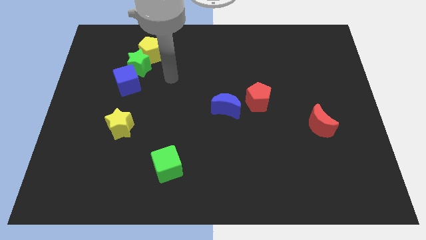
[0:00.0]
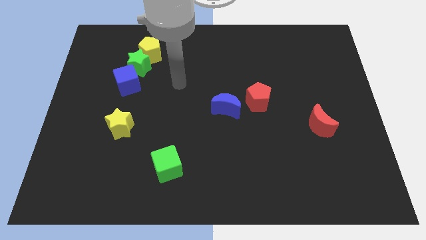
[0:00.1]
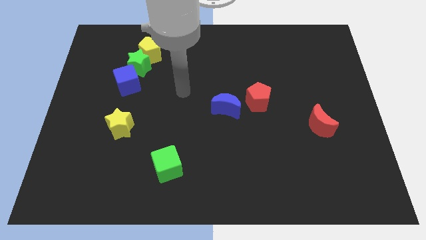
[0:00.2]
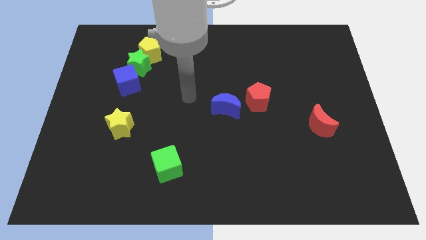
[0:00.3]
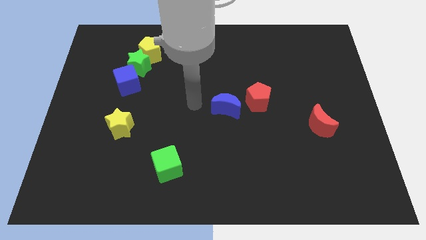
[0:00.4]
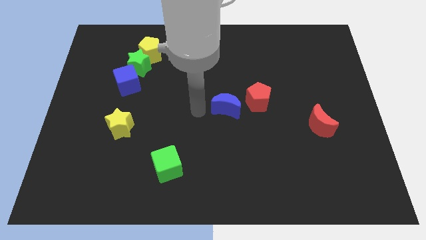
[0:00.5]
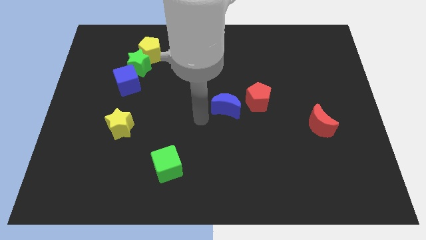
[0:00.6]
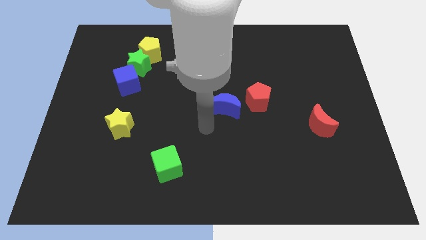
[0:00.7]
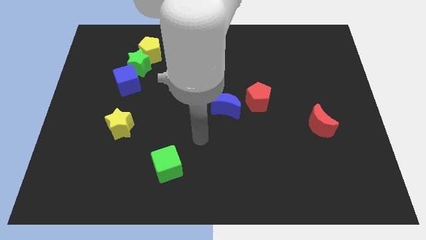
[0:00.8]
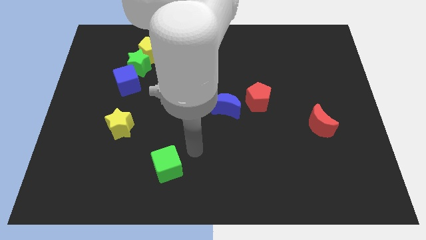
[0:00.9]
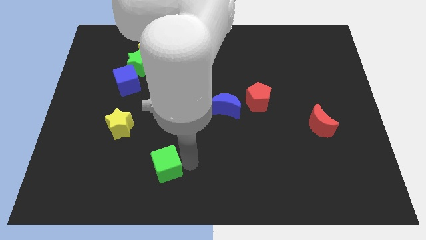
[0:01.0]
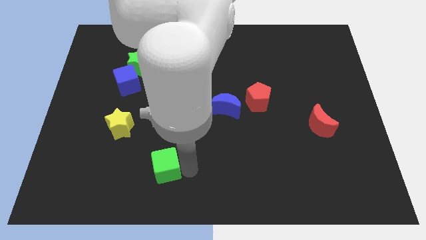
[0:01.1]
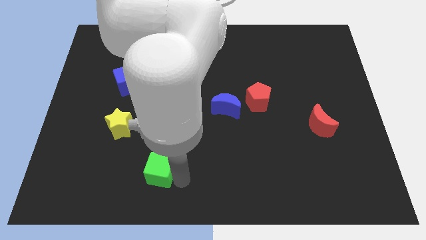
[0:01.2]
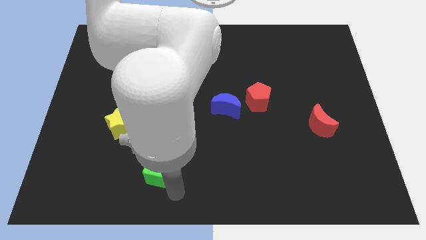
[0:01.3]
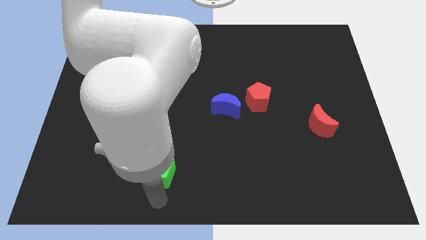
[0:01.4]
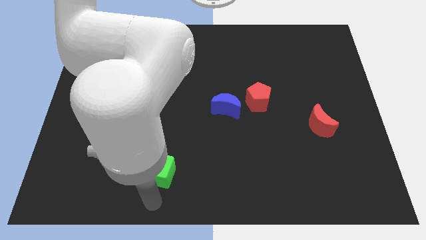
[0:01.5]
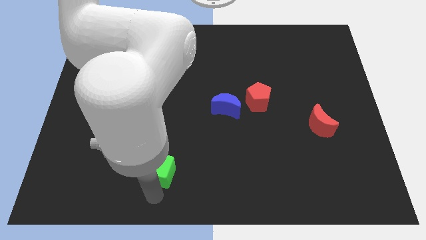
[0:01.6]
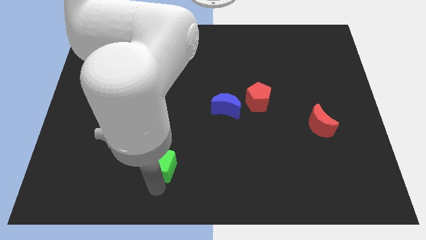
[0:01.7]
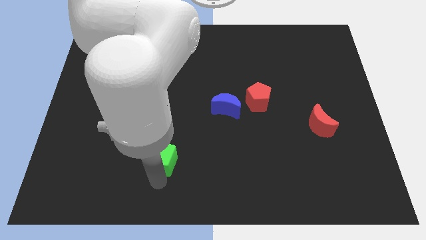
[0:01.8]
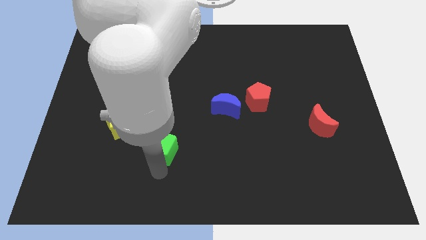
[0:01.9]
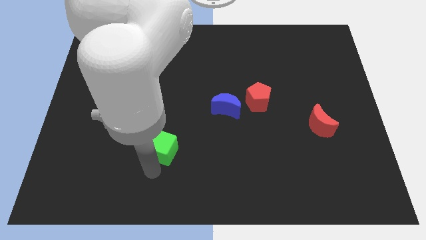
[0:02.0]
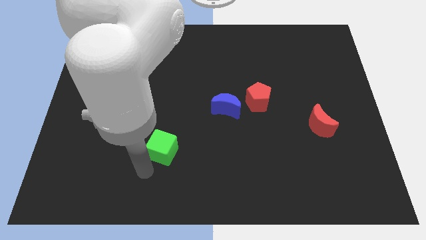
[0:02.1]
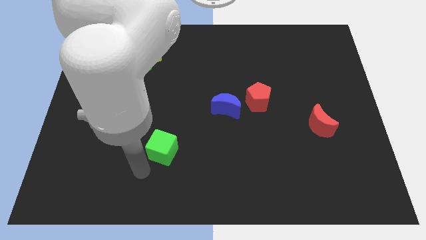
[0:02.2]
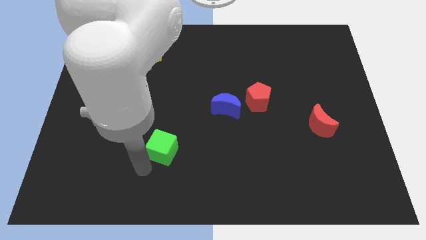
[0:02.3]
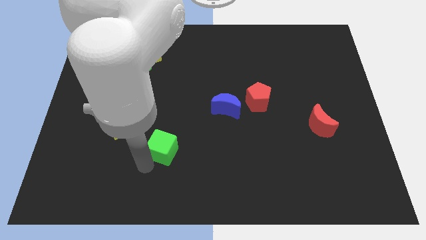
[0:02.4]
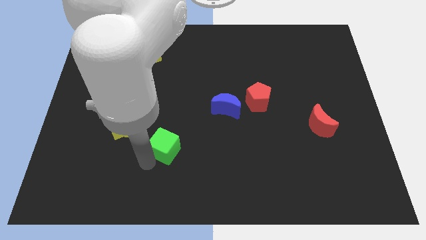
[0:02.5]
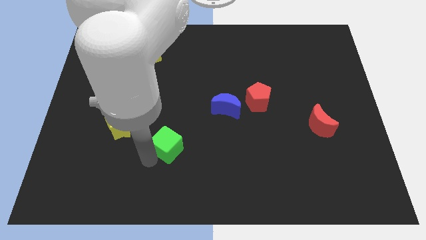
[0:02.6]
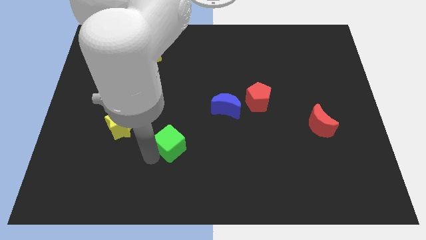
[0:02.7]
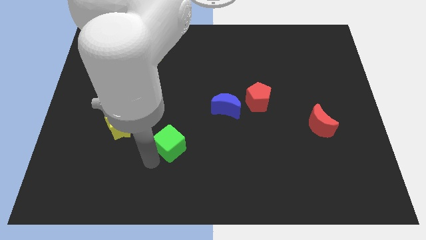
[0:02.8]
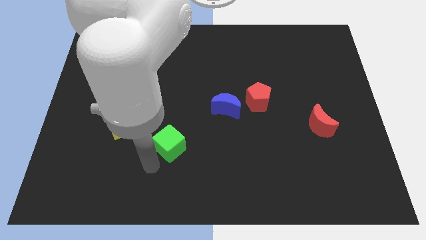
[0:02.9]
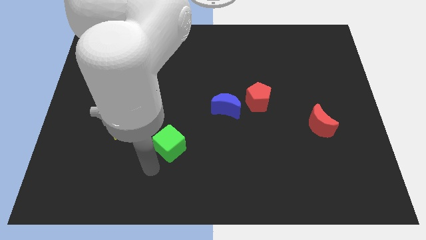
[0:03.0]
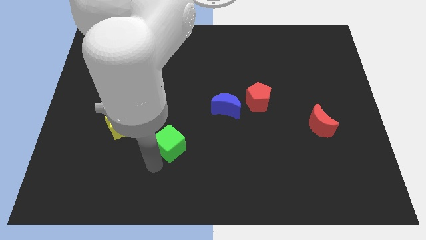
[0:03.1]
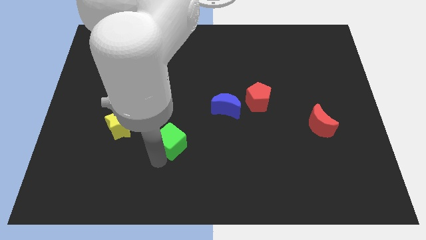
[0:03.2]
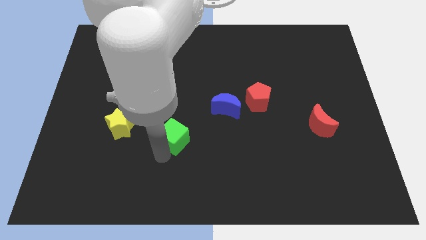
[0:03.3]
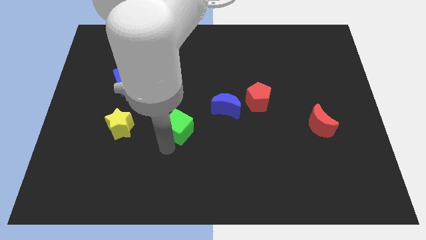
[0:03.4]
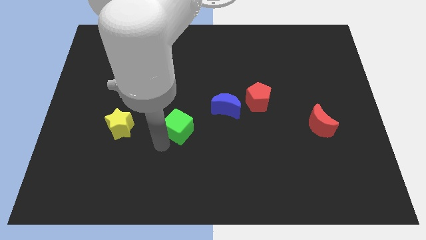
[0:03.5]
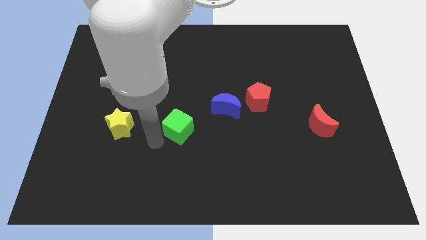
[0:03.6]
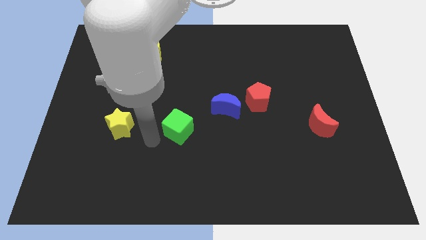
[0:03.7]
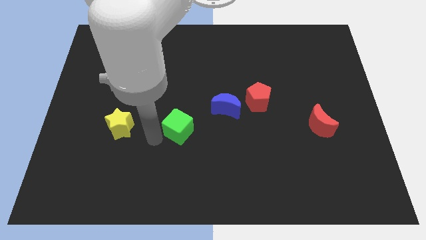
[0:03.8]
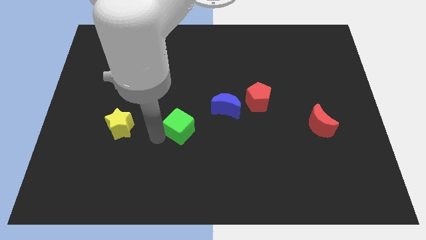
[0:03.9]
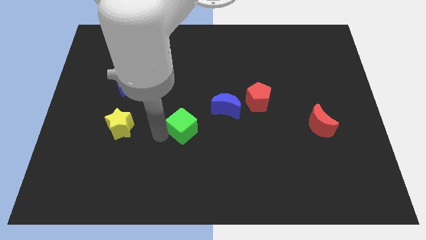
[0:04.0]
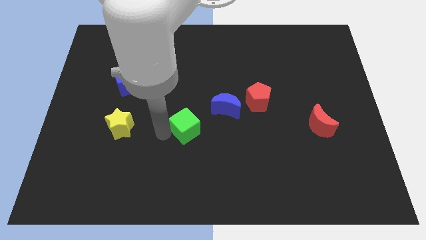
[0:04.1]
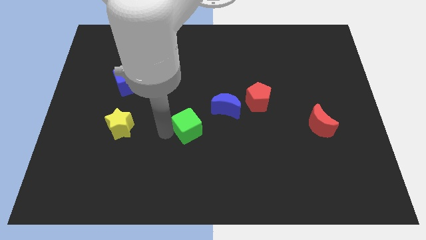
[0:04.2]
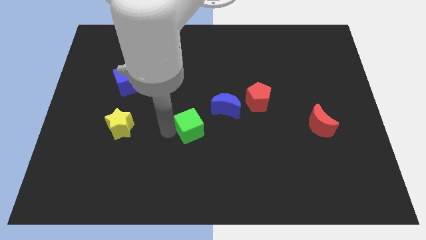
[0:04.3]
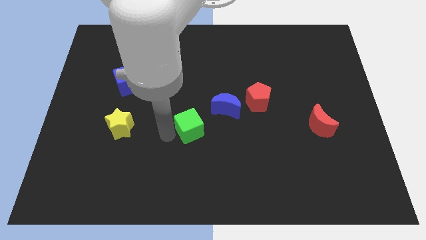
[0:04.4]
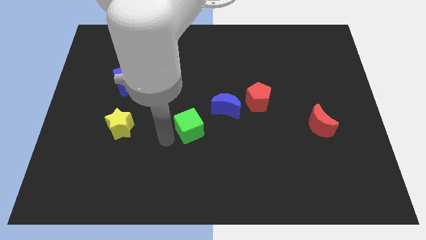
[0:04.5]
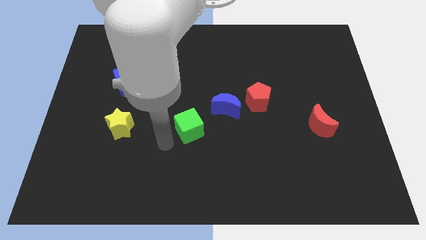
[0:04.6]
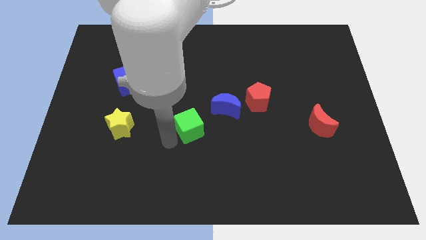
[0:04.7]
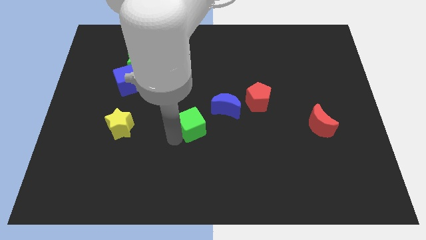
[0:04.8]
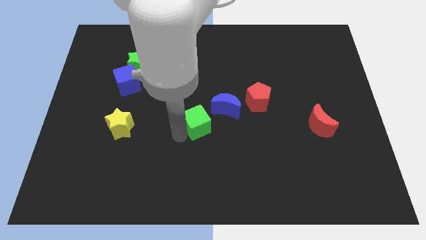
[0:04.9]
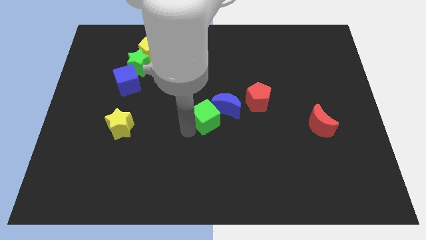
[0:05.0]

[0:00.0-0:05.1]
put the green cube next to the blue moon

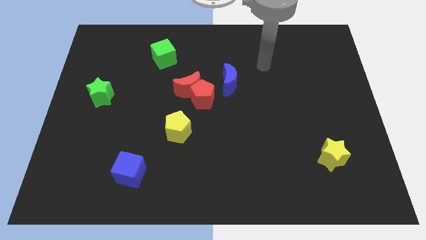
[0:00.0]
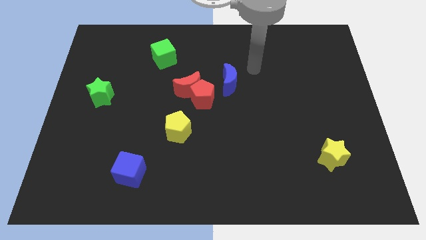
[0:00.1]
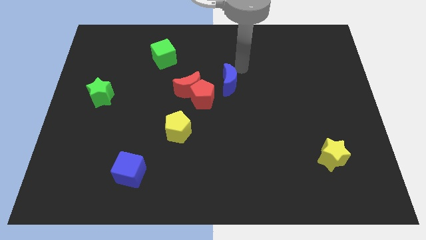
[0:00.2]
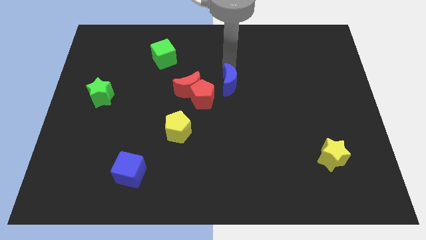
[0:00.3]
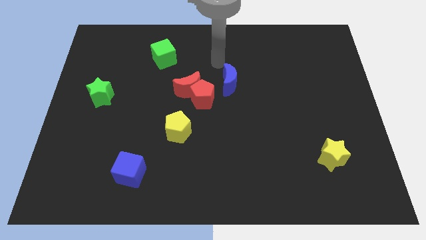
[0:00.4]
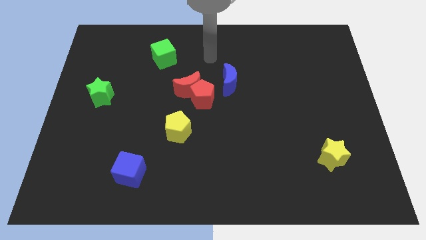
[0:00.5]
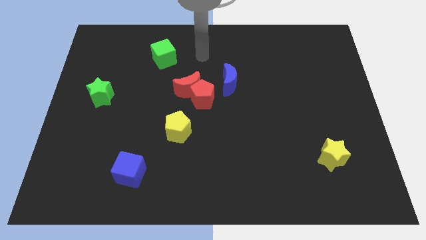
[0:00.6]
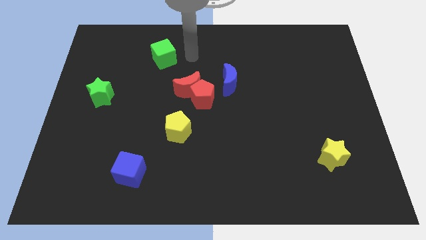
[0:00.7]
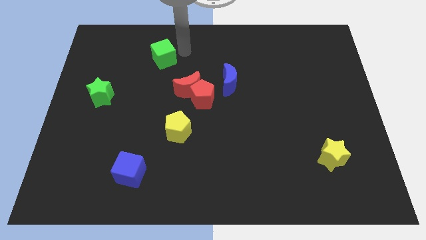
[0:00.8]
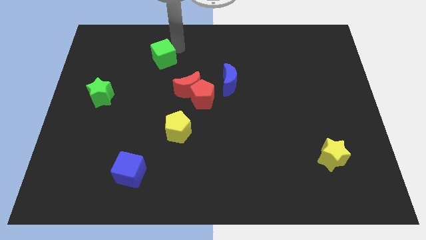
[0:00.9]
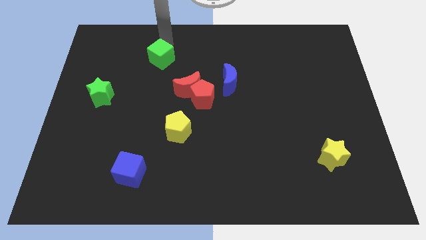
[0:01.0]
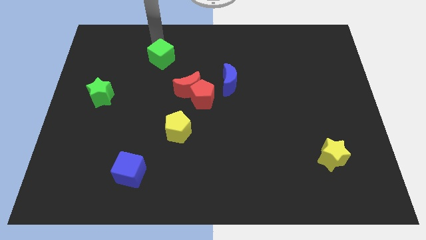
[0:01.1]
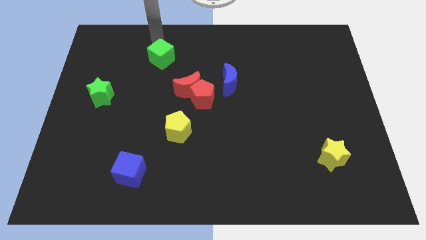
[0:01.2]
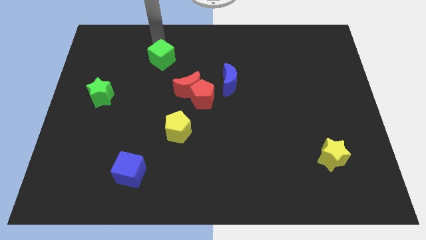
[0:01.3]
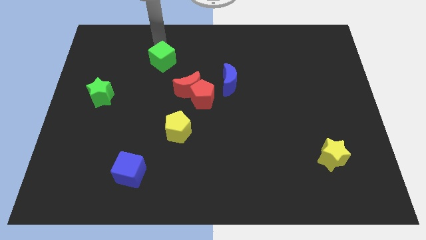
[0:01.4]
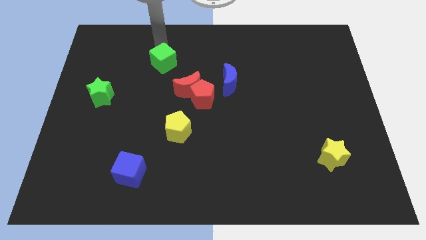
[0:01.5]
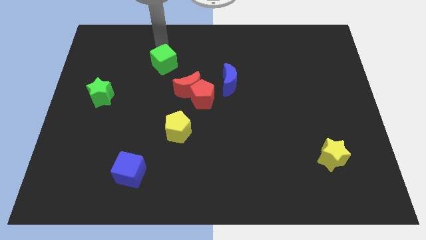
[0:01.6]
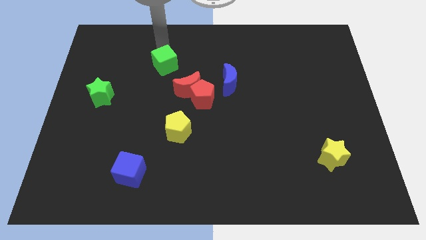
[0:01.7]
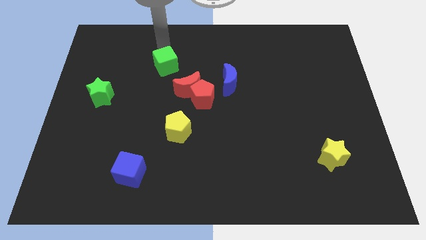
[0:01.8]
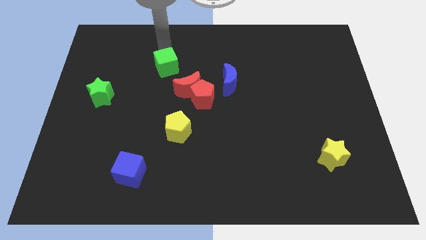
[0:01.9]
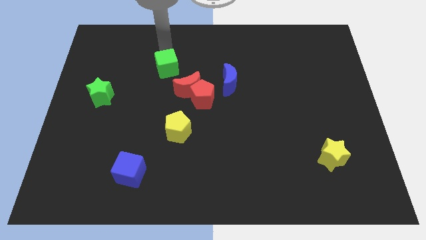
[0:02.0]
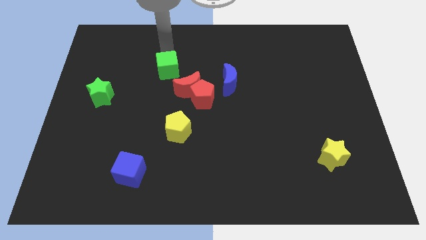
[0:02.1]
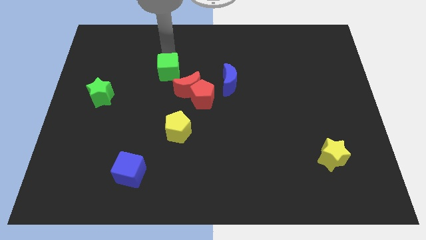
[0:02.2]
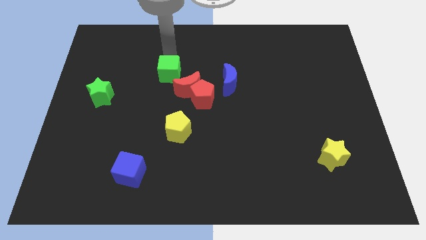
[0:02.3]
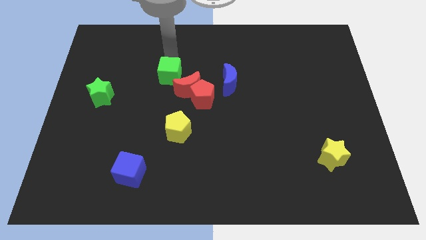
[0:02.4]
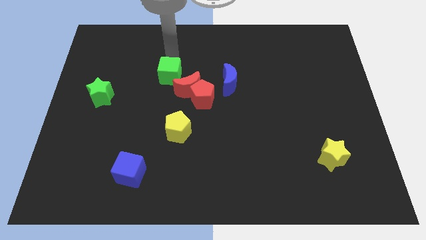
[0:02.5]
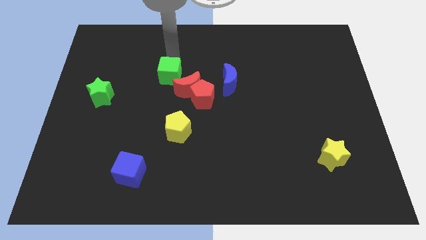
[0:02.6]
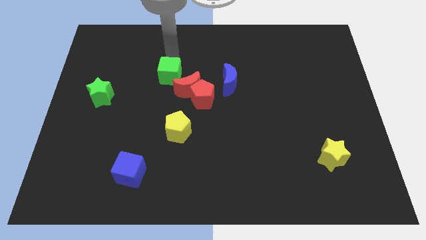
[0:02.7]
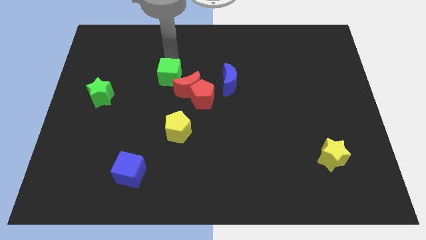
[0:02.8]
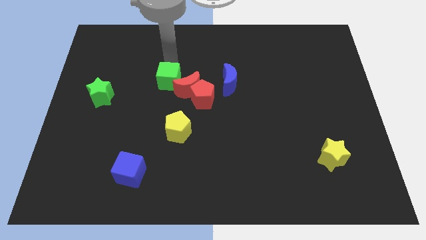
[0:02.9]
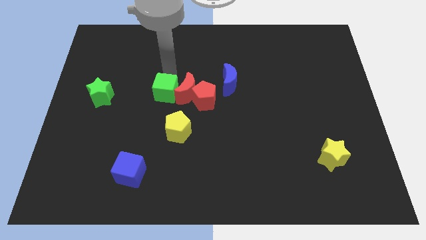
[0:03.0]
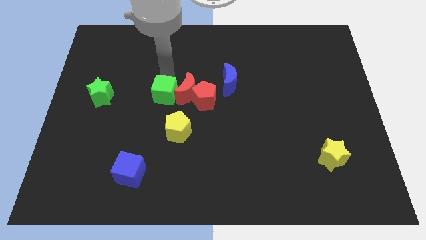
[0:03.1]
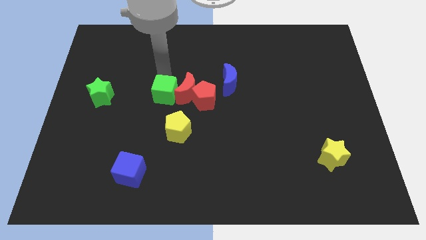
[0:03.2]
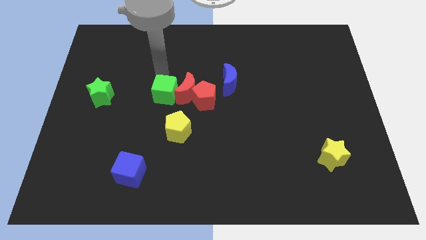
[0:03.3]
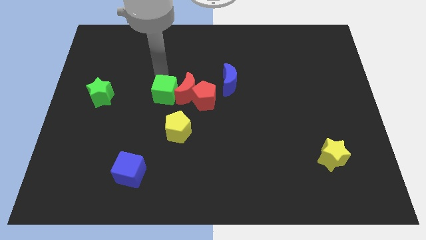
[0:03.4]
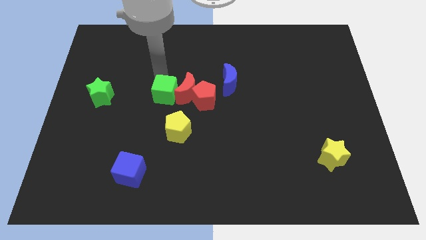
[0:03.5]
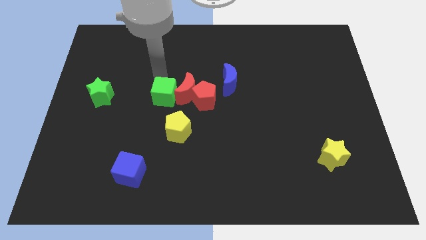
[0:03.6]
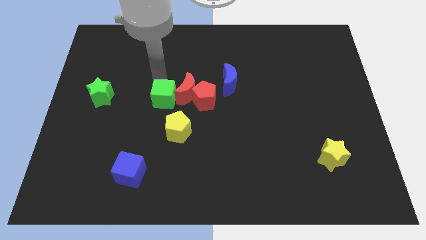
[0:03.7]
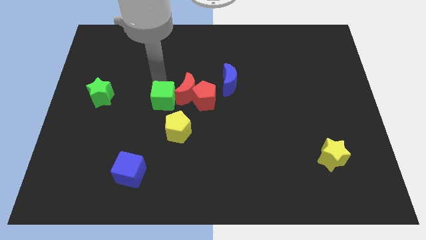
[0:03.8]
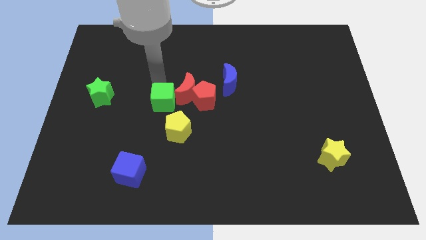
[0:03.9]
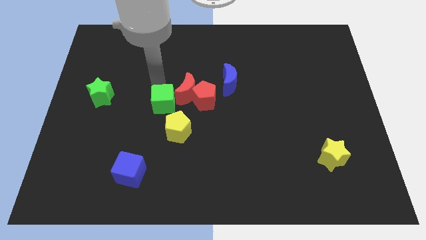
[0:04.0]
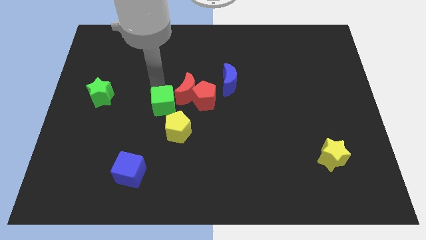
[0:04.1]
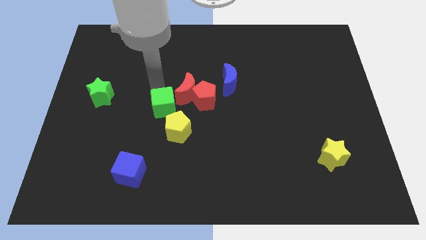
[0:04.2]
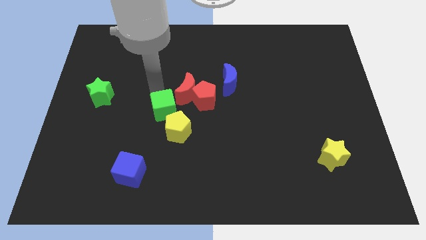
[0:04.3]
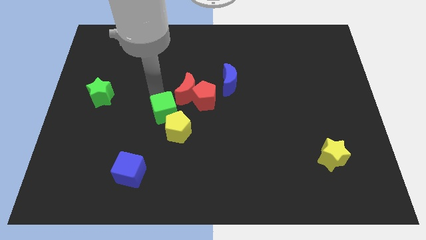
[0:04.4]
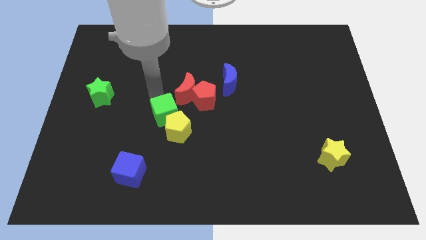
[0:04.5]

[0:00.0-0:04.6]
move the green cube next to the yellow pentagon
